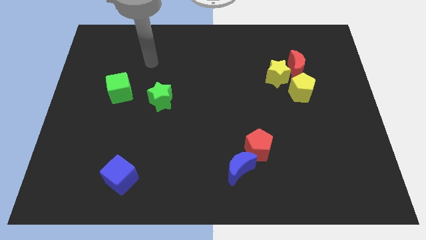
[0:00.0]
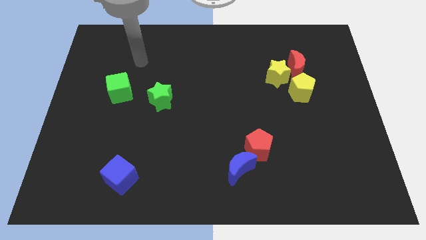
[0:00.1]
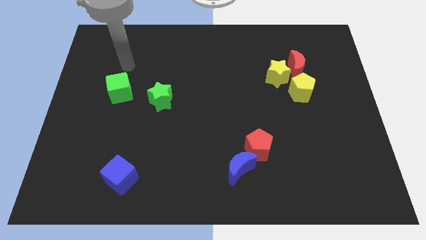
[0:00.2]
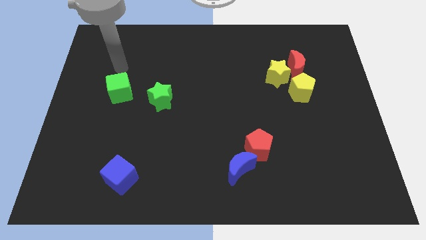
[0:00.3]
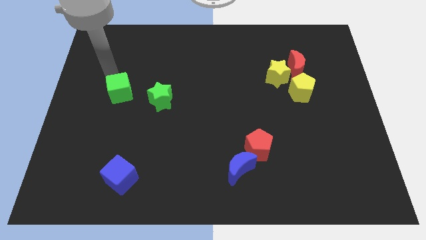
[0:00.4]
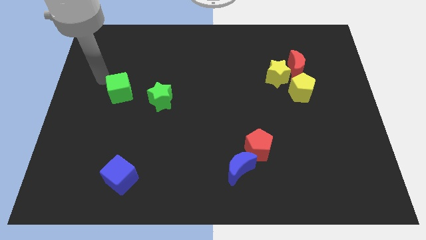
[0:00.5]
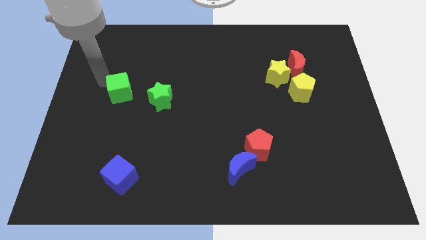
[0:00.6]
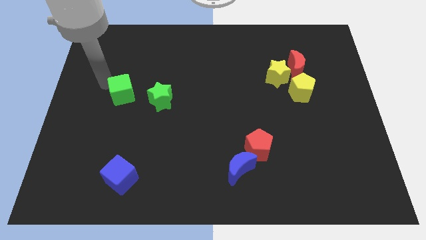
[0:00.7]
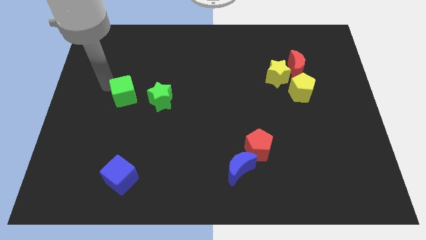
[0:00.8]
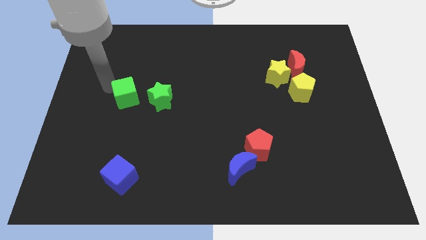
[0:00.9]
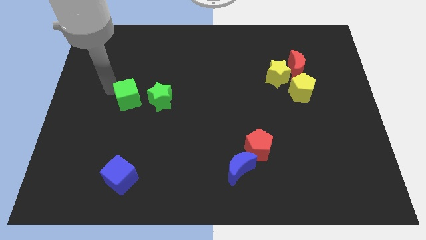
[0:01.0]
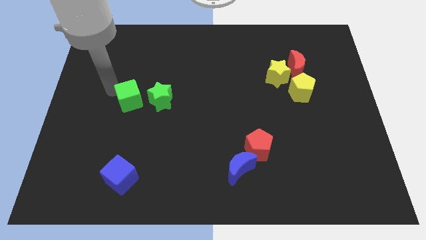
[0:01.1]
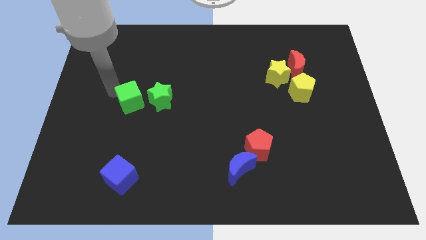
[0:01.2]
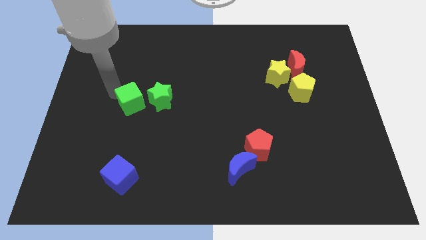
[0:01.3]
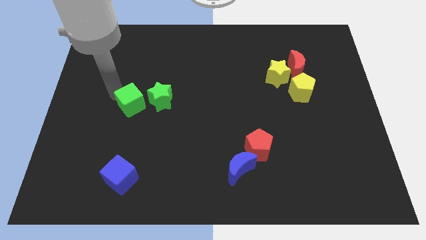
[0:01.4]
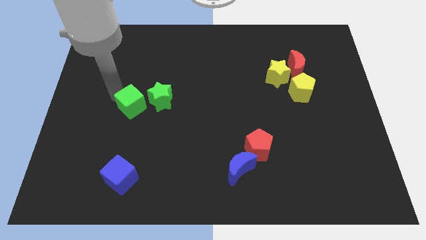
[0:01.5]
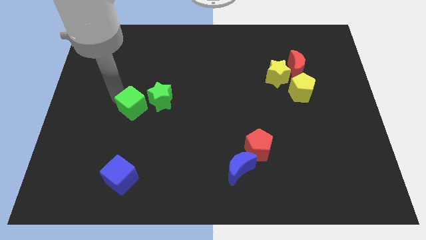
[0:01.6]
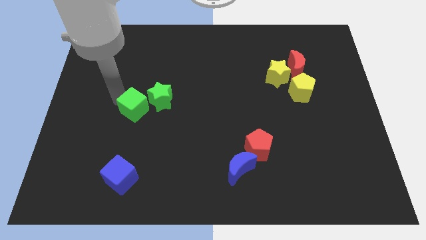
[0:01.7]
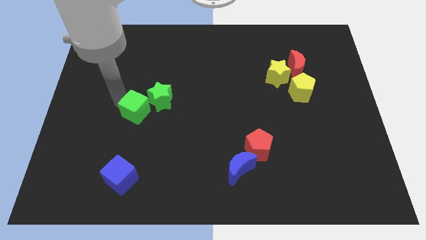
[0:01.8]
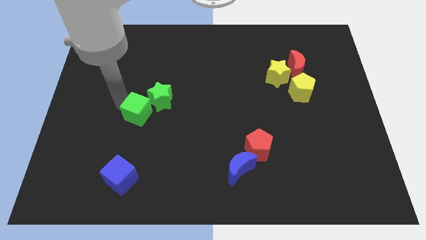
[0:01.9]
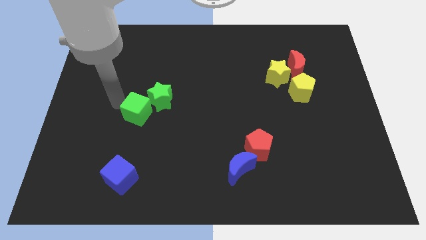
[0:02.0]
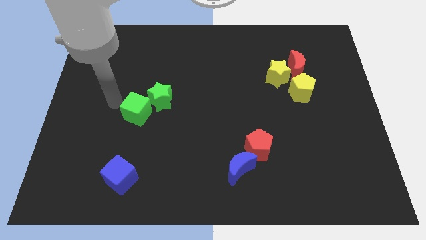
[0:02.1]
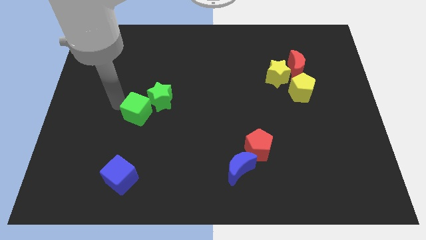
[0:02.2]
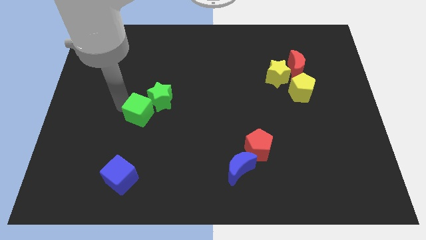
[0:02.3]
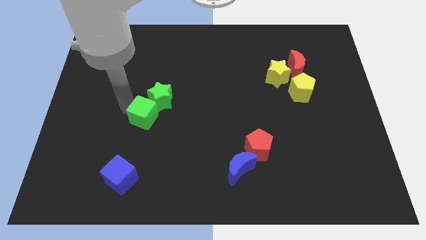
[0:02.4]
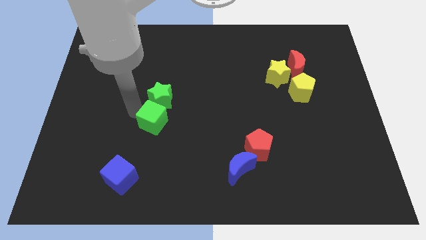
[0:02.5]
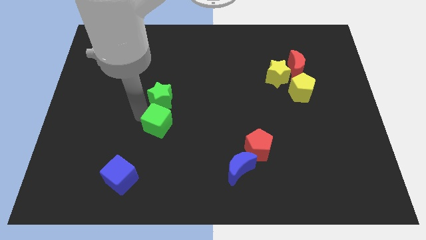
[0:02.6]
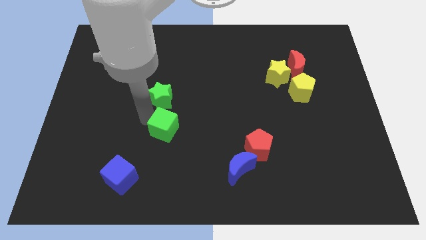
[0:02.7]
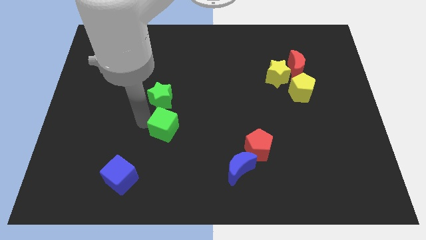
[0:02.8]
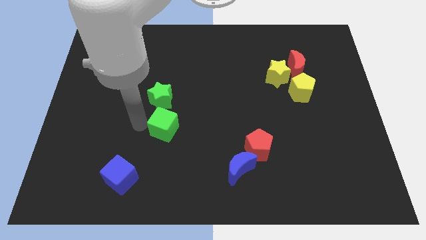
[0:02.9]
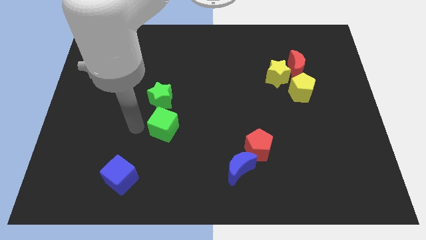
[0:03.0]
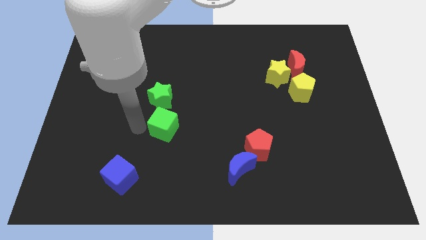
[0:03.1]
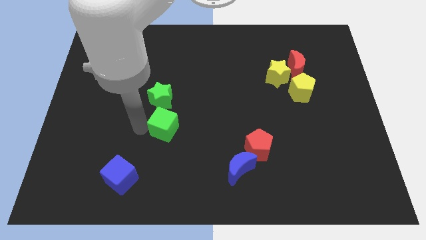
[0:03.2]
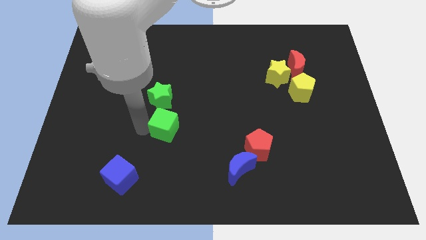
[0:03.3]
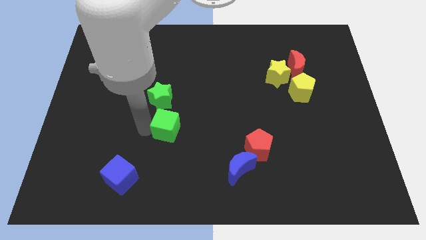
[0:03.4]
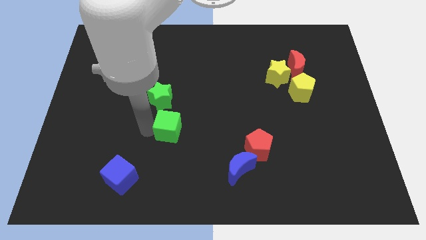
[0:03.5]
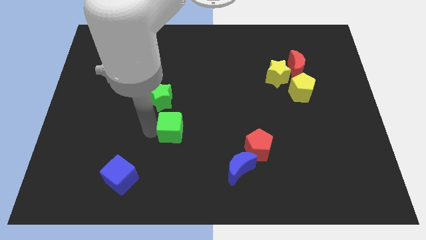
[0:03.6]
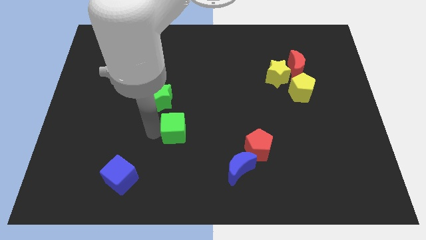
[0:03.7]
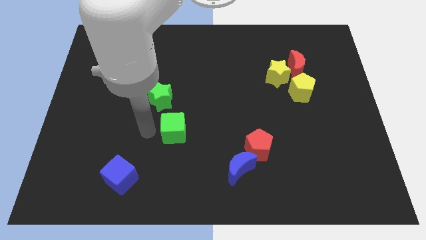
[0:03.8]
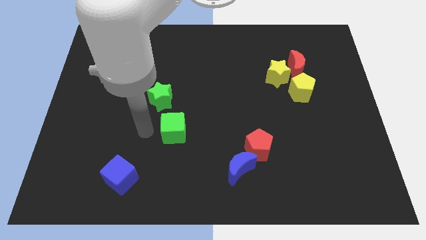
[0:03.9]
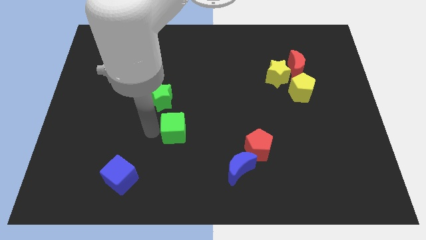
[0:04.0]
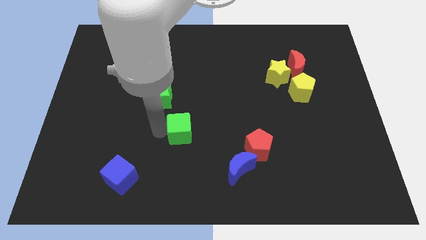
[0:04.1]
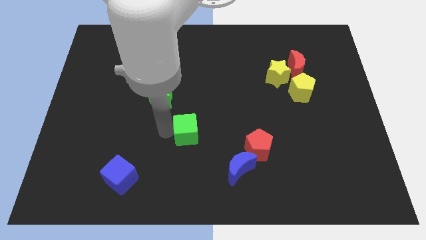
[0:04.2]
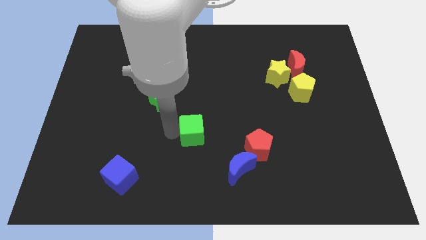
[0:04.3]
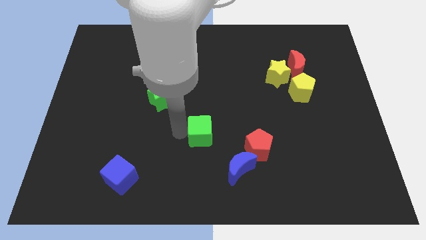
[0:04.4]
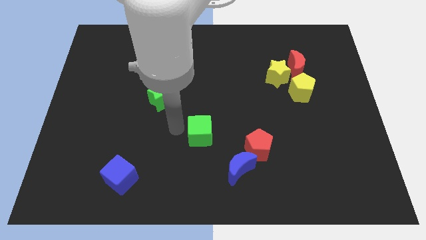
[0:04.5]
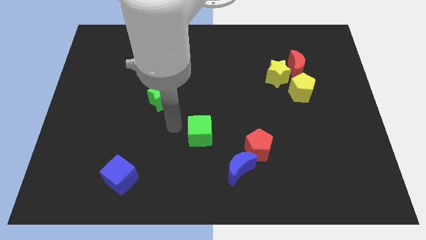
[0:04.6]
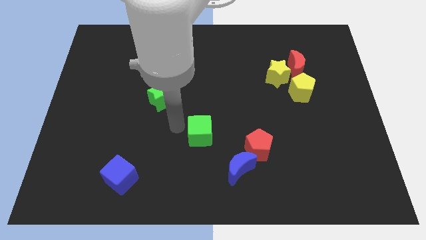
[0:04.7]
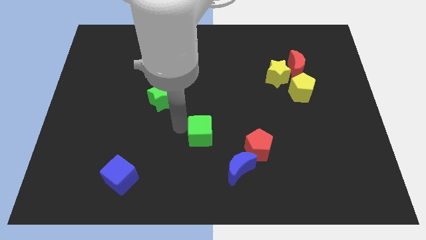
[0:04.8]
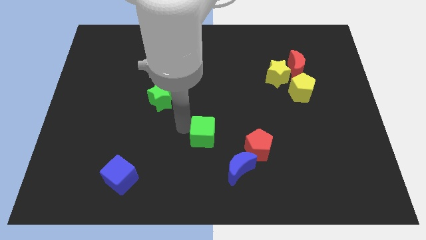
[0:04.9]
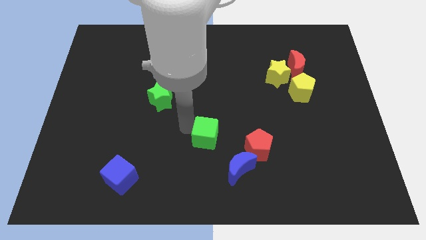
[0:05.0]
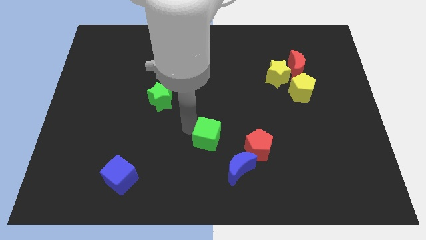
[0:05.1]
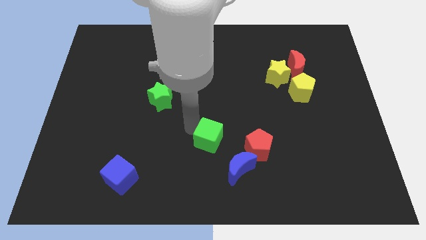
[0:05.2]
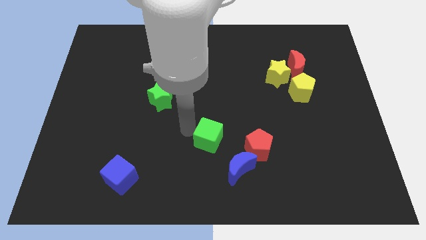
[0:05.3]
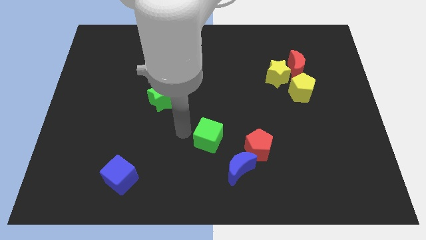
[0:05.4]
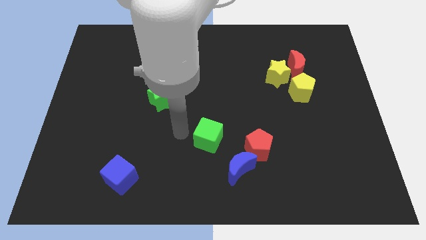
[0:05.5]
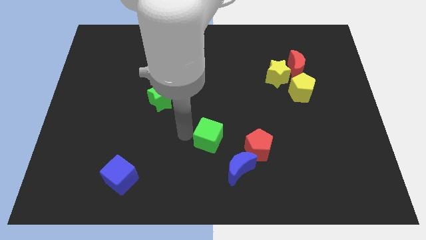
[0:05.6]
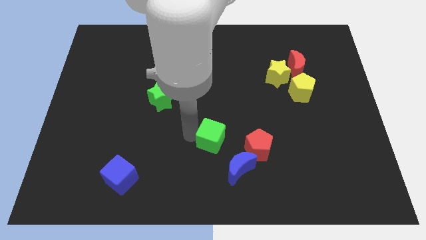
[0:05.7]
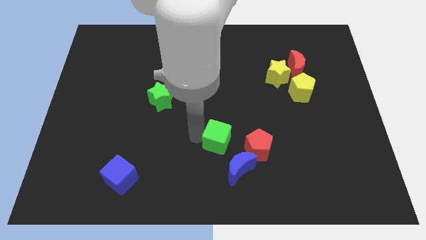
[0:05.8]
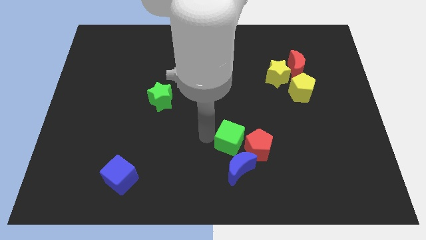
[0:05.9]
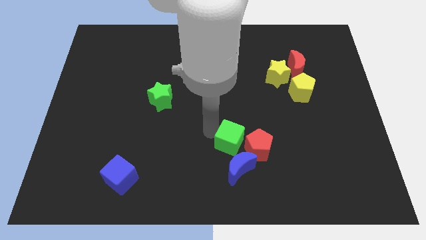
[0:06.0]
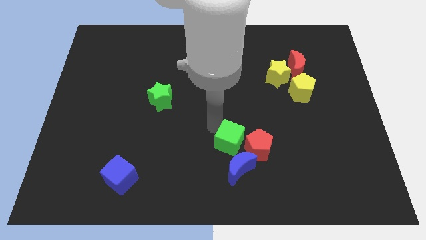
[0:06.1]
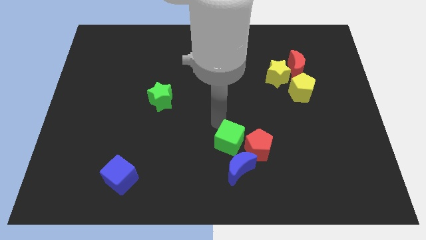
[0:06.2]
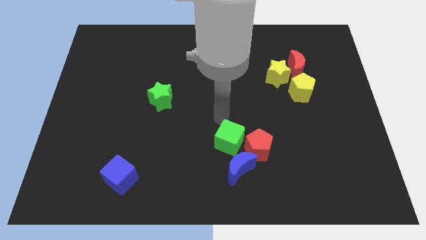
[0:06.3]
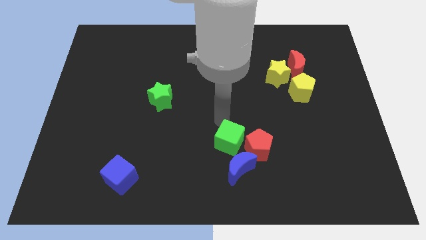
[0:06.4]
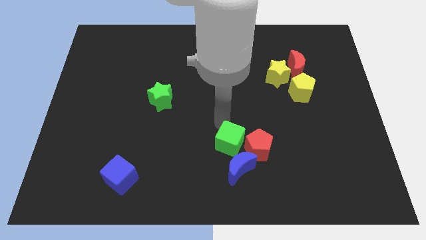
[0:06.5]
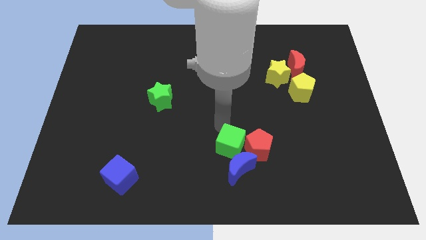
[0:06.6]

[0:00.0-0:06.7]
slide the green cube next to the blue moon

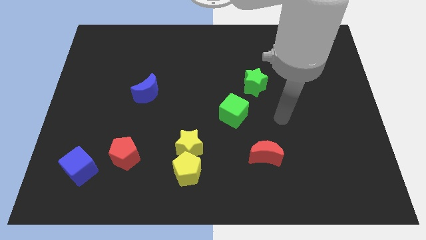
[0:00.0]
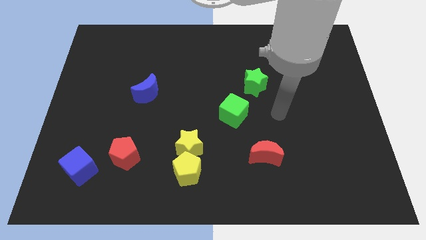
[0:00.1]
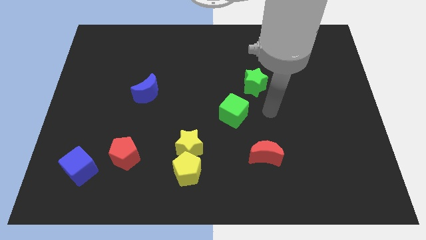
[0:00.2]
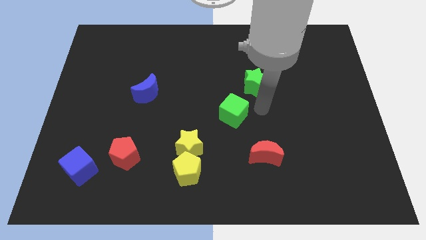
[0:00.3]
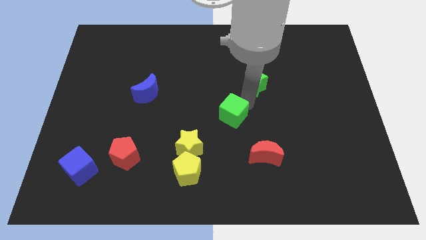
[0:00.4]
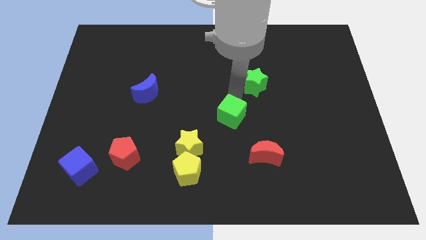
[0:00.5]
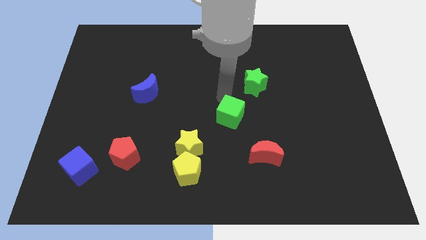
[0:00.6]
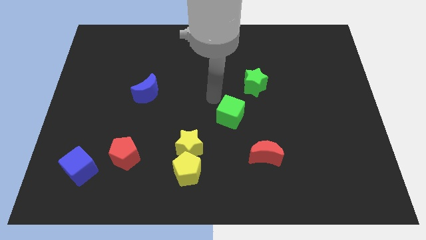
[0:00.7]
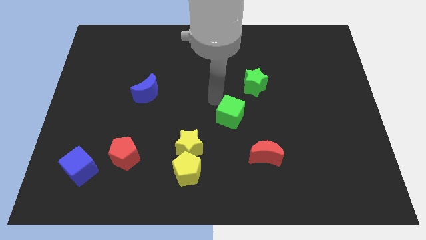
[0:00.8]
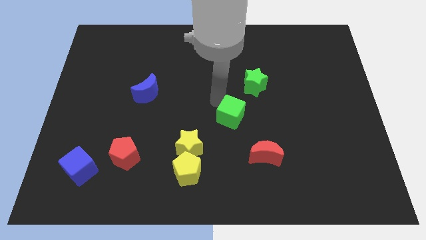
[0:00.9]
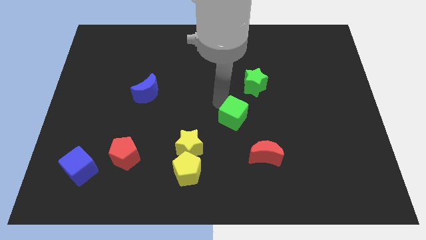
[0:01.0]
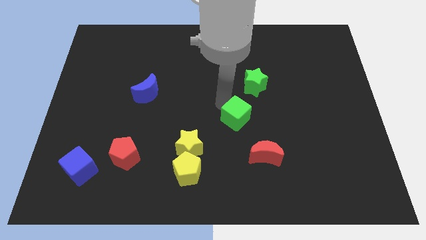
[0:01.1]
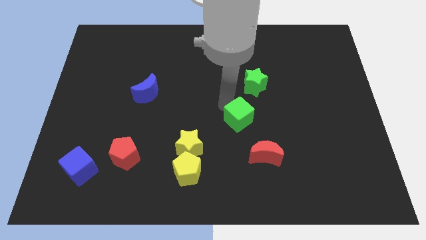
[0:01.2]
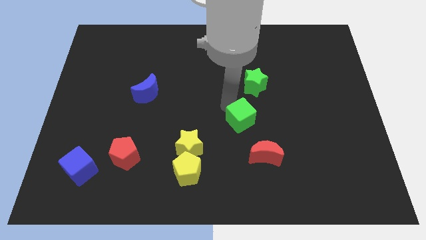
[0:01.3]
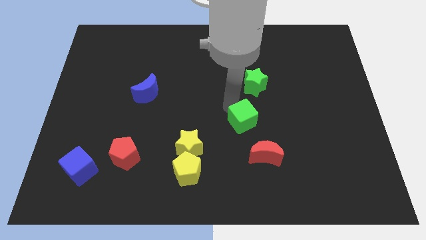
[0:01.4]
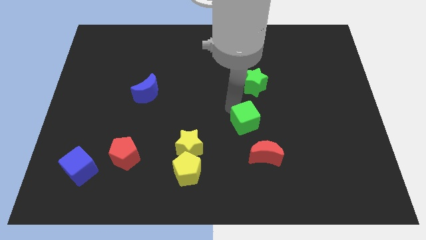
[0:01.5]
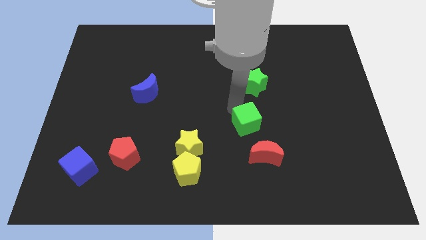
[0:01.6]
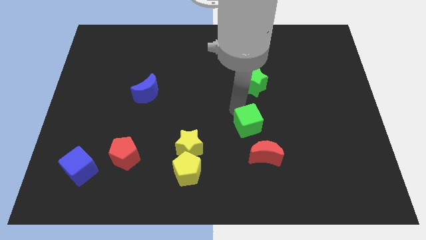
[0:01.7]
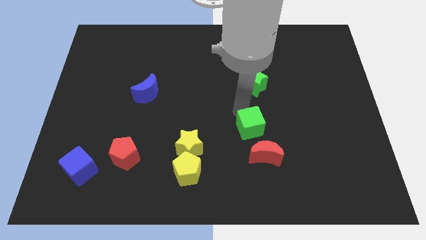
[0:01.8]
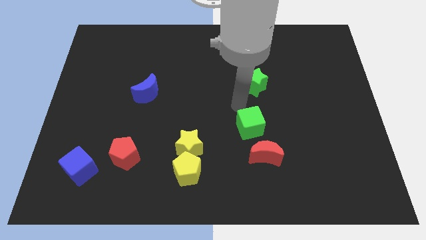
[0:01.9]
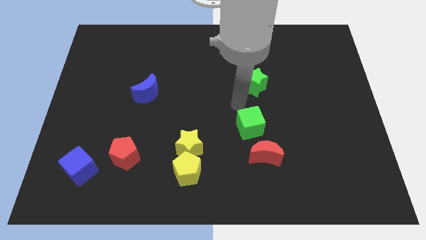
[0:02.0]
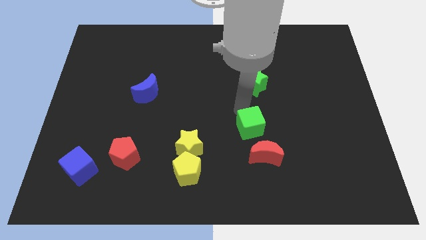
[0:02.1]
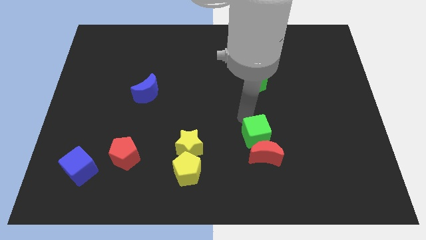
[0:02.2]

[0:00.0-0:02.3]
push the green cube to the red moon
